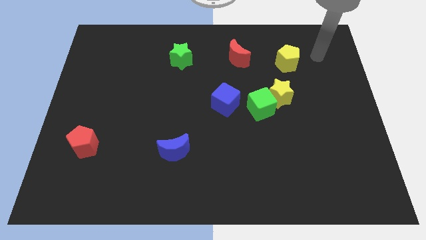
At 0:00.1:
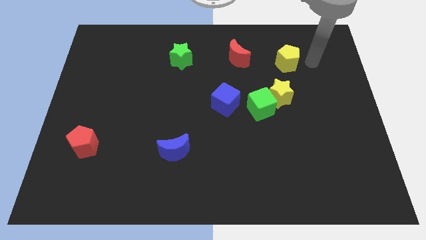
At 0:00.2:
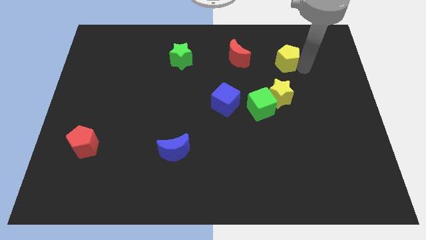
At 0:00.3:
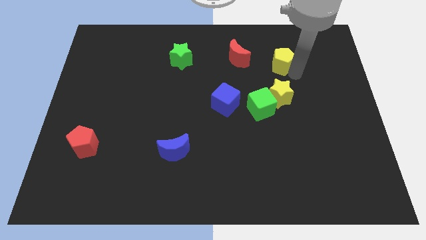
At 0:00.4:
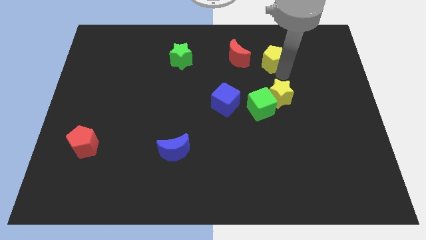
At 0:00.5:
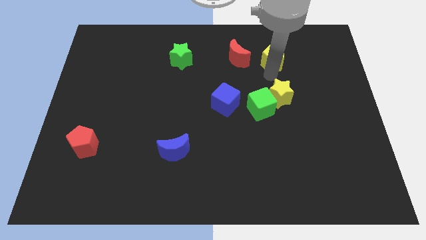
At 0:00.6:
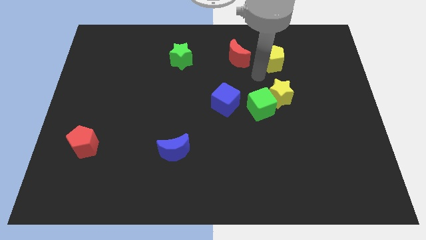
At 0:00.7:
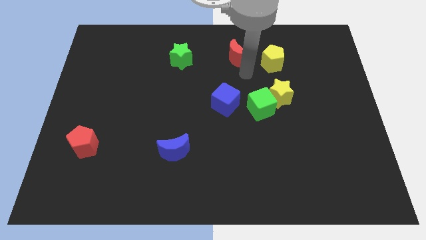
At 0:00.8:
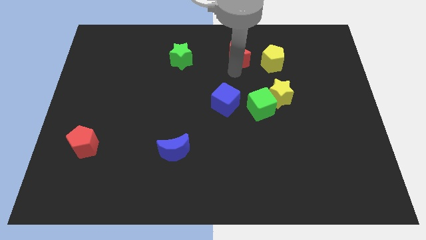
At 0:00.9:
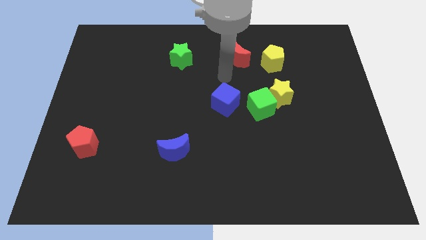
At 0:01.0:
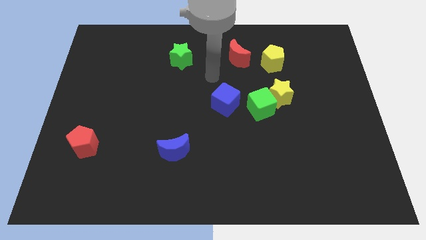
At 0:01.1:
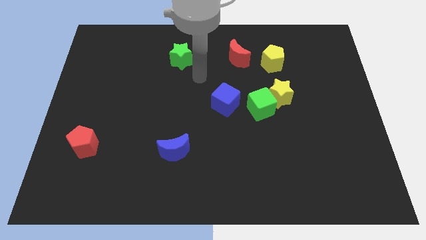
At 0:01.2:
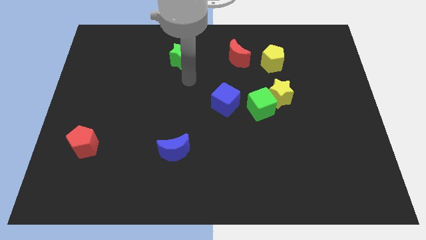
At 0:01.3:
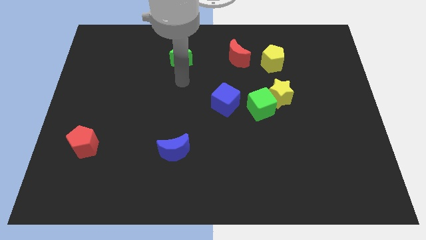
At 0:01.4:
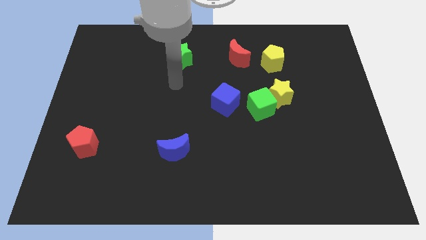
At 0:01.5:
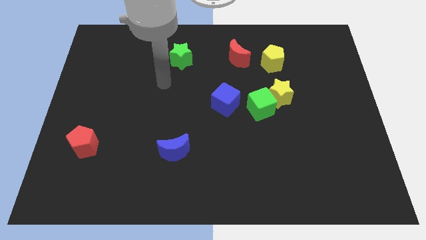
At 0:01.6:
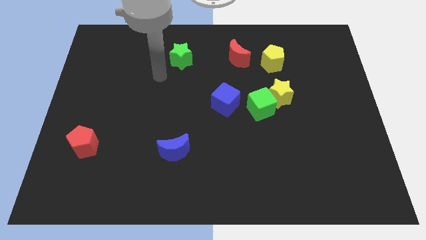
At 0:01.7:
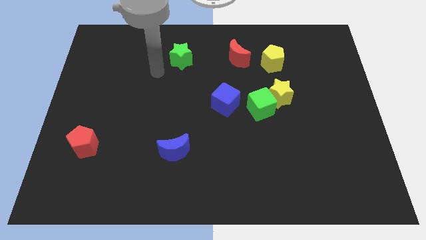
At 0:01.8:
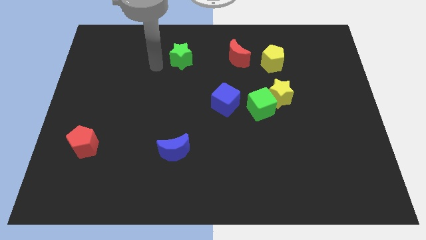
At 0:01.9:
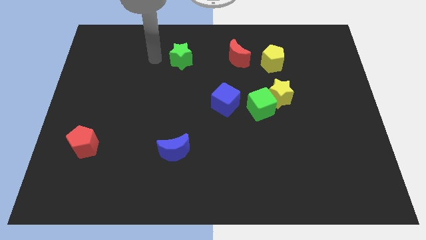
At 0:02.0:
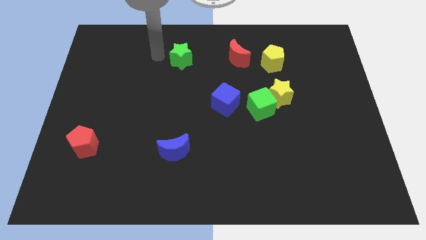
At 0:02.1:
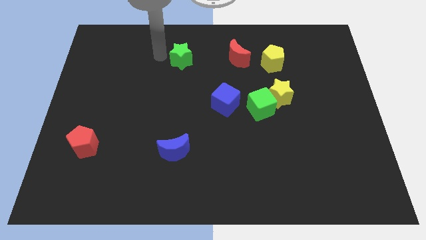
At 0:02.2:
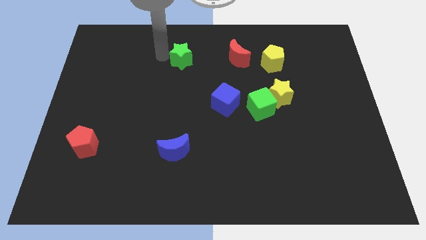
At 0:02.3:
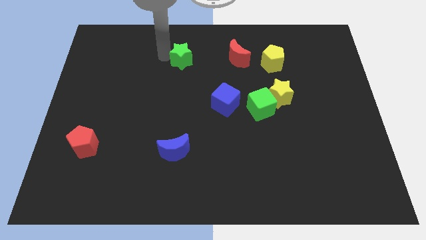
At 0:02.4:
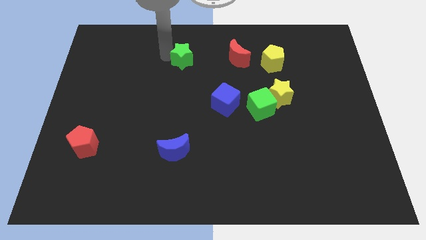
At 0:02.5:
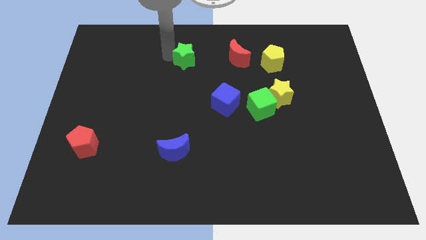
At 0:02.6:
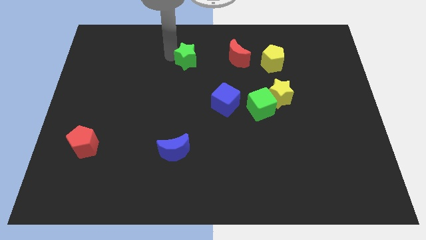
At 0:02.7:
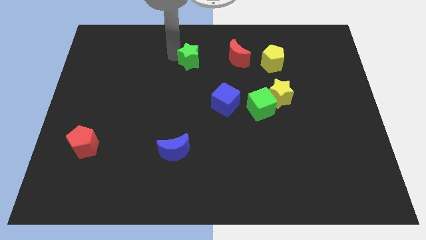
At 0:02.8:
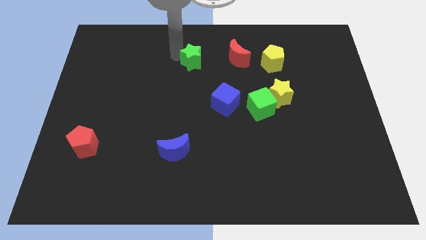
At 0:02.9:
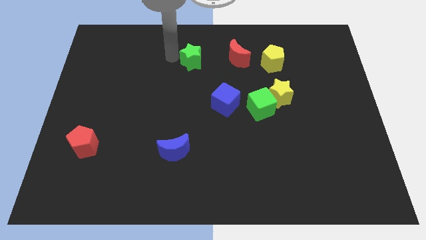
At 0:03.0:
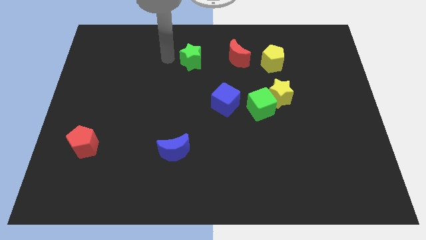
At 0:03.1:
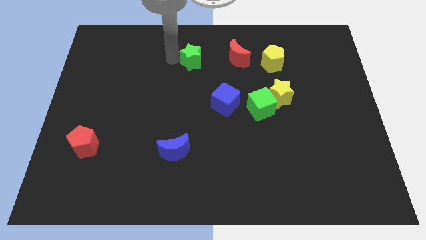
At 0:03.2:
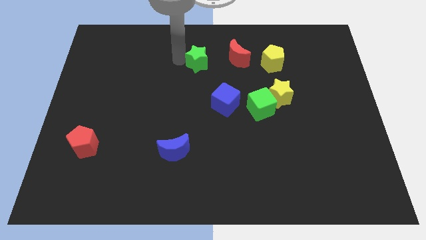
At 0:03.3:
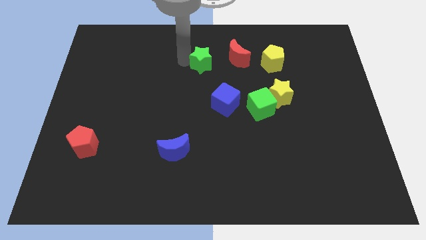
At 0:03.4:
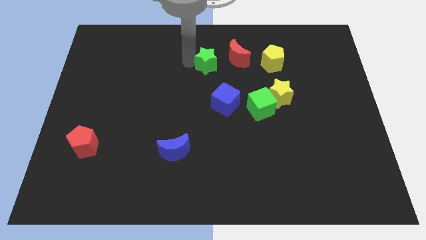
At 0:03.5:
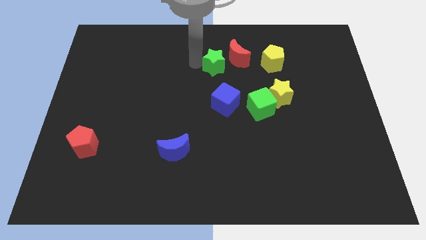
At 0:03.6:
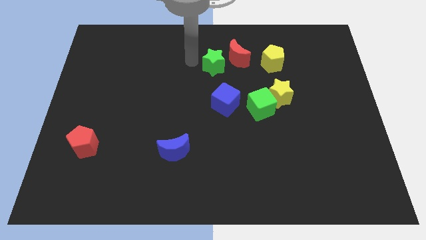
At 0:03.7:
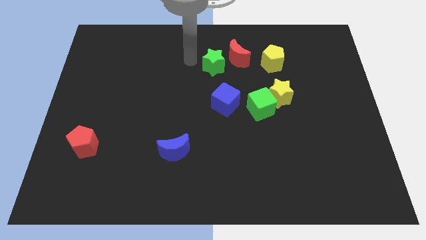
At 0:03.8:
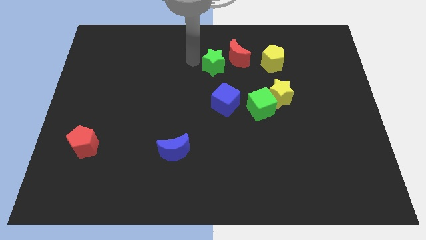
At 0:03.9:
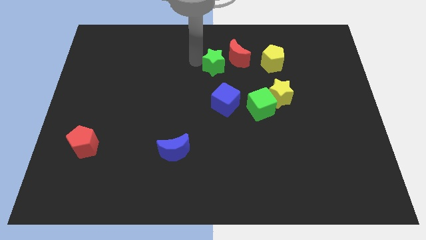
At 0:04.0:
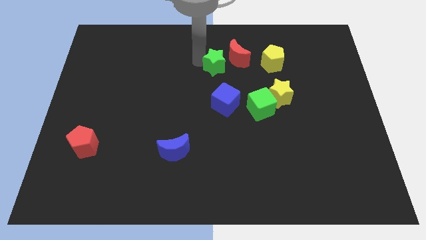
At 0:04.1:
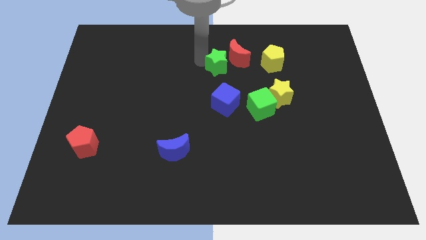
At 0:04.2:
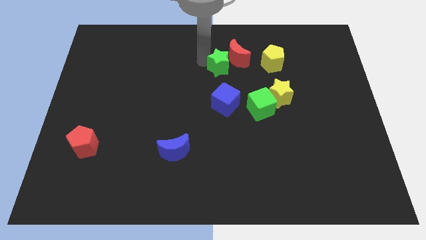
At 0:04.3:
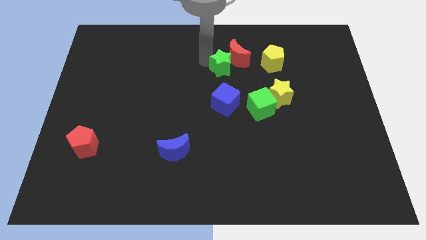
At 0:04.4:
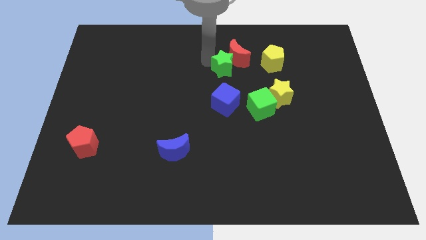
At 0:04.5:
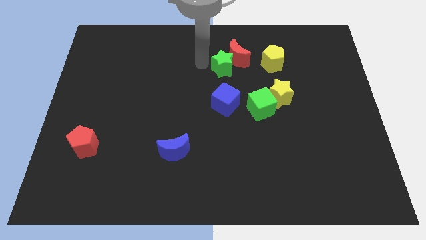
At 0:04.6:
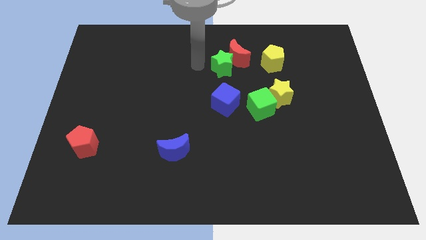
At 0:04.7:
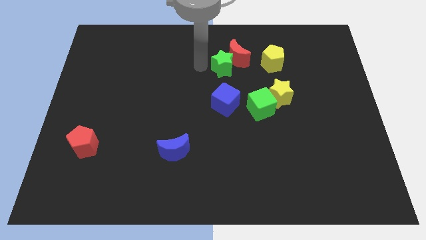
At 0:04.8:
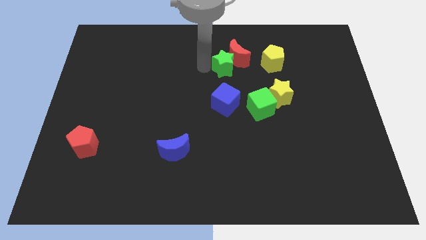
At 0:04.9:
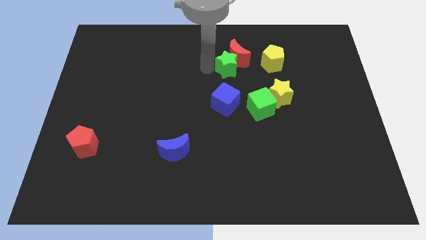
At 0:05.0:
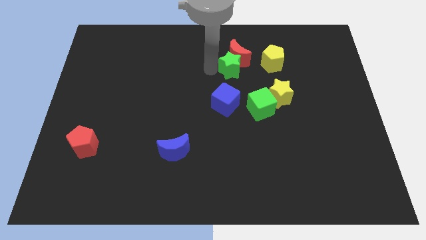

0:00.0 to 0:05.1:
move the green star diagonally down and to the right of the red moon

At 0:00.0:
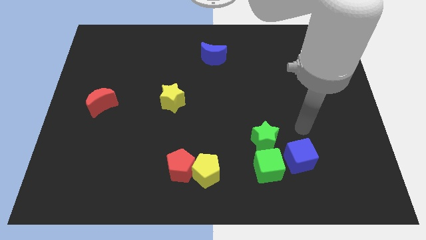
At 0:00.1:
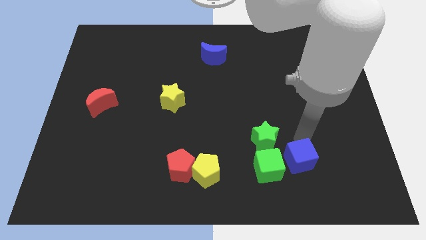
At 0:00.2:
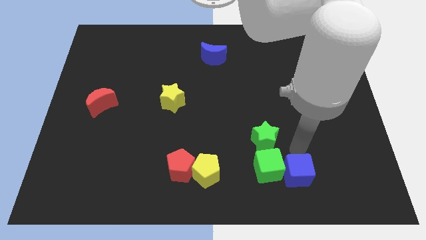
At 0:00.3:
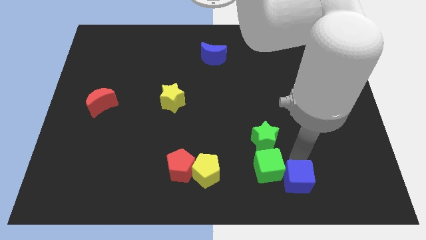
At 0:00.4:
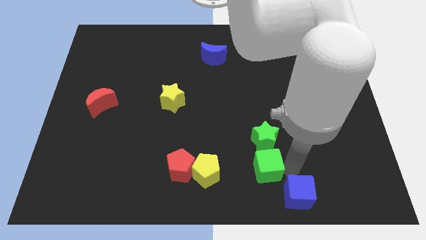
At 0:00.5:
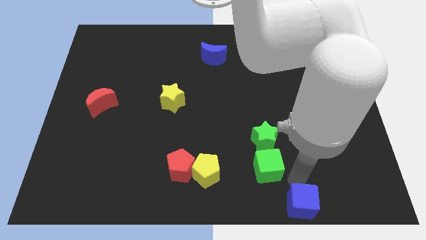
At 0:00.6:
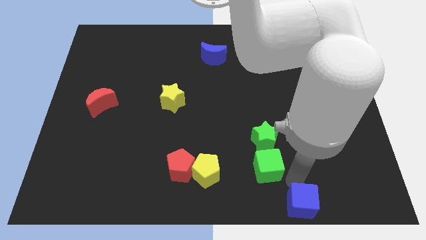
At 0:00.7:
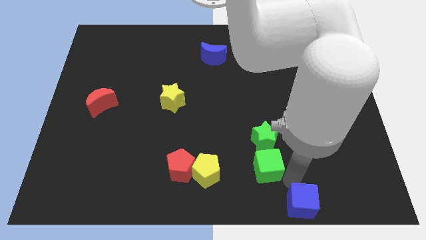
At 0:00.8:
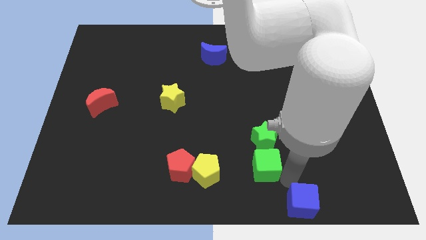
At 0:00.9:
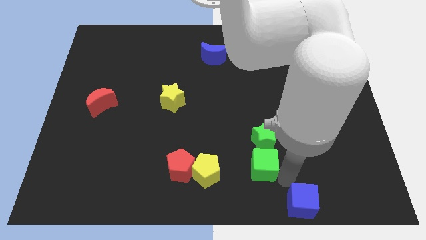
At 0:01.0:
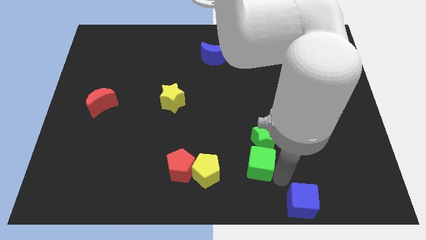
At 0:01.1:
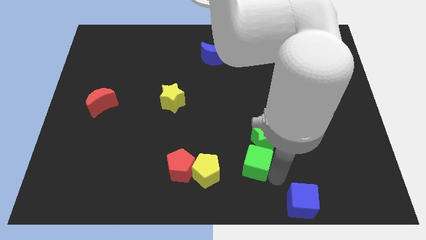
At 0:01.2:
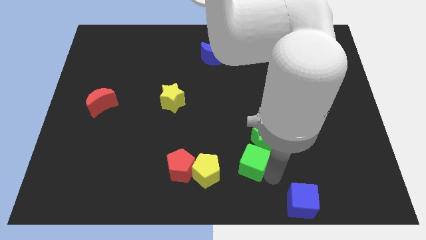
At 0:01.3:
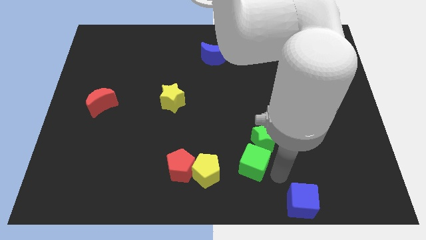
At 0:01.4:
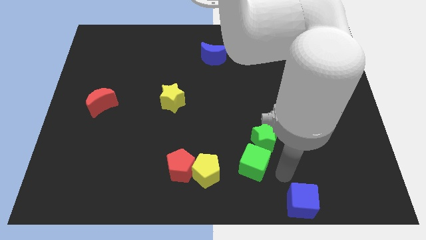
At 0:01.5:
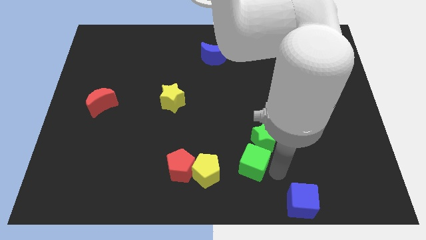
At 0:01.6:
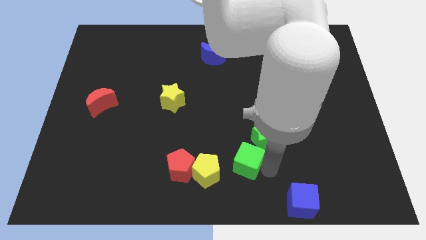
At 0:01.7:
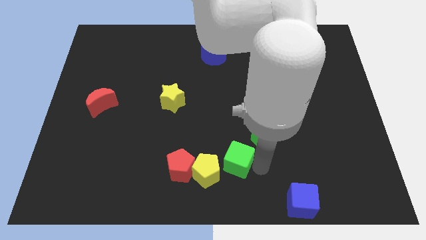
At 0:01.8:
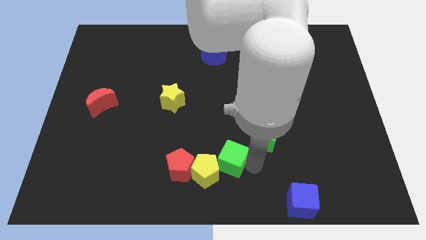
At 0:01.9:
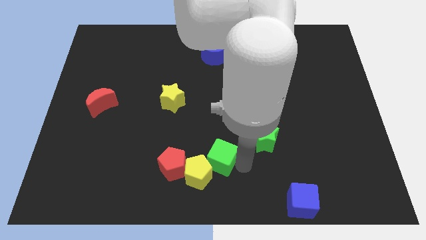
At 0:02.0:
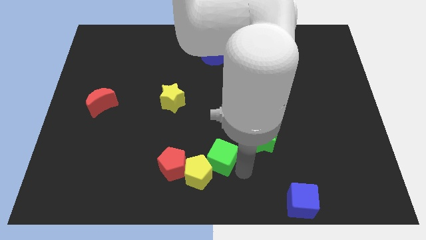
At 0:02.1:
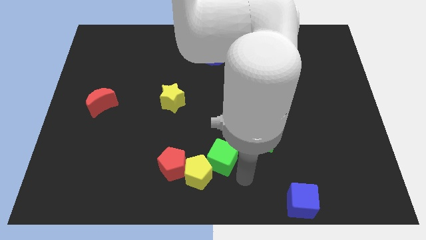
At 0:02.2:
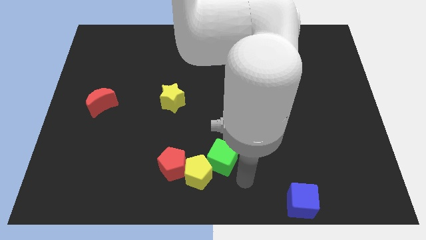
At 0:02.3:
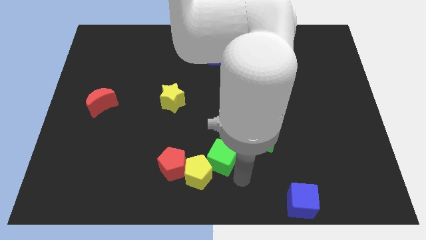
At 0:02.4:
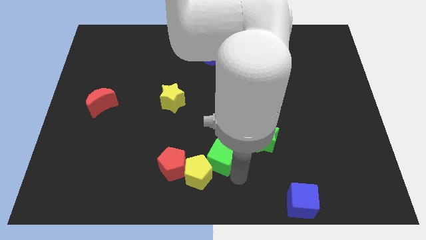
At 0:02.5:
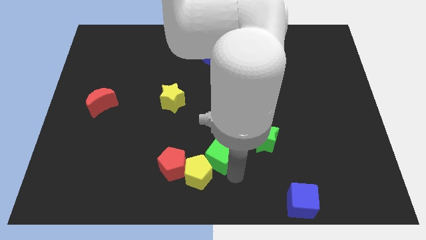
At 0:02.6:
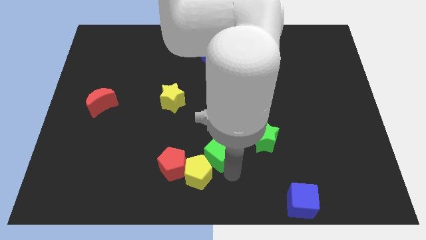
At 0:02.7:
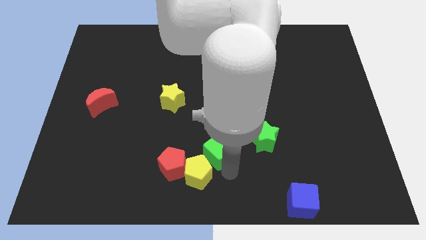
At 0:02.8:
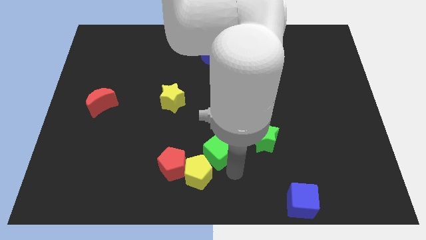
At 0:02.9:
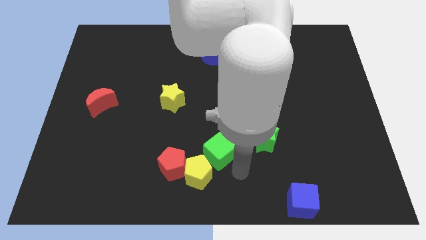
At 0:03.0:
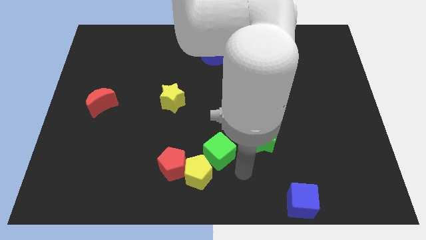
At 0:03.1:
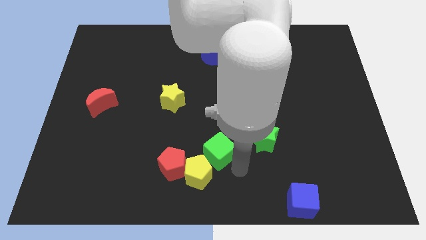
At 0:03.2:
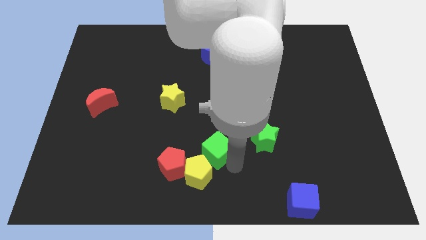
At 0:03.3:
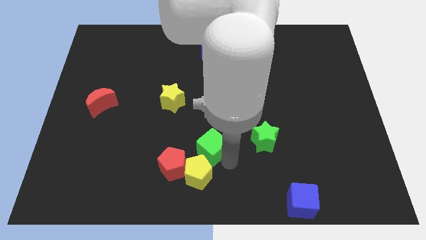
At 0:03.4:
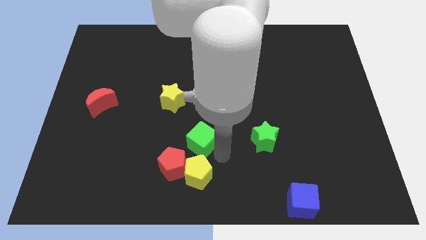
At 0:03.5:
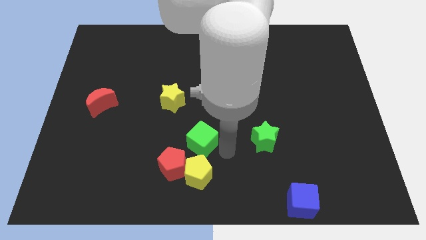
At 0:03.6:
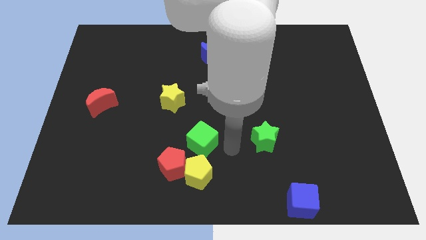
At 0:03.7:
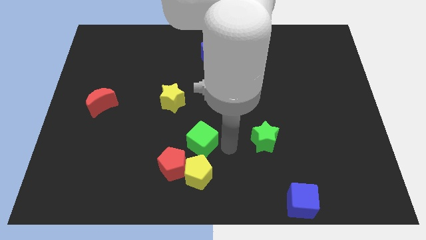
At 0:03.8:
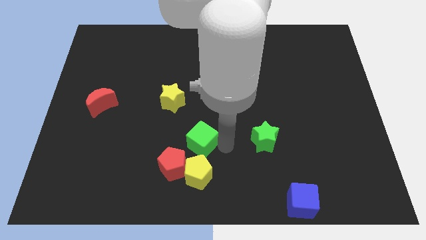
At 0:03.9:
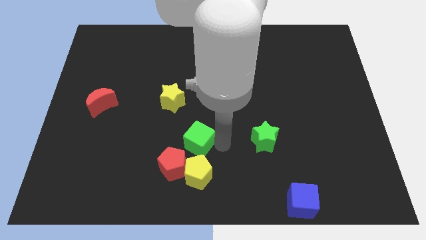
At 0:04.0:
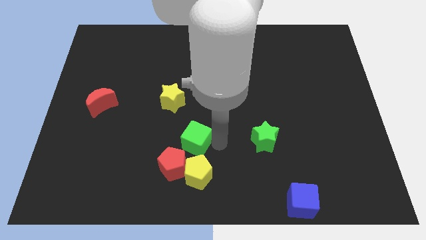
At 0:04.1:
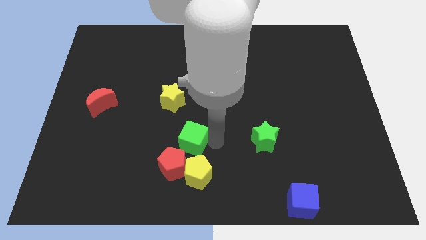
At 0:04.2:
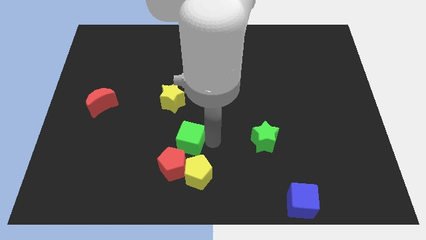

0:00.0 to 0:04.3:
push the green cube below the yellow star
